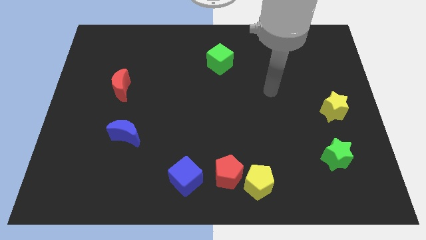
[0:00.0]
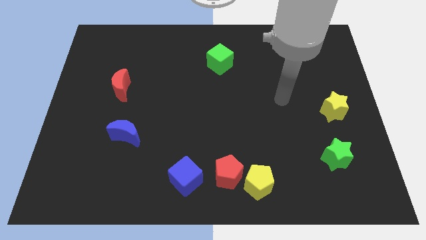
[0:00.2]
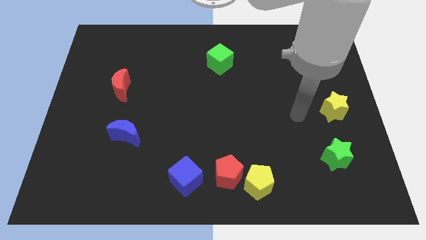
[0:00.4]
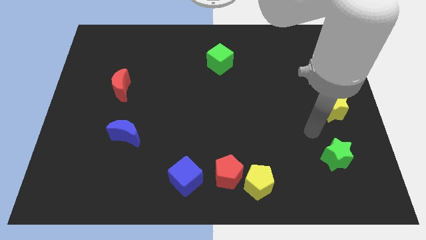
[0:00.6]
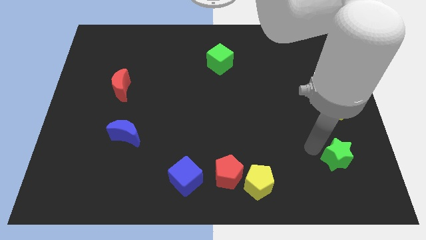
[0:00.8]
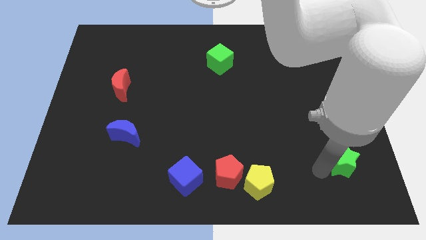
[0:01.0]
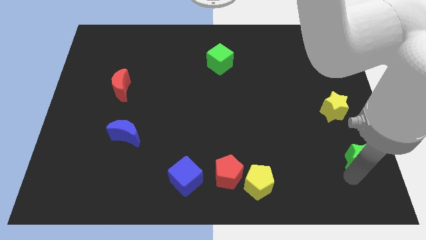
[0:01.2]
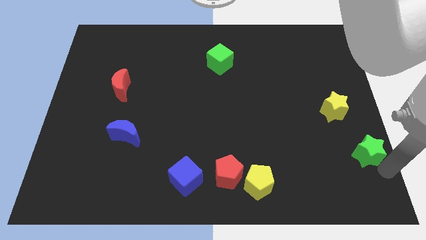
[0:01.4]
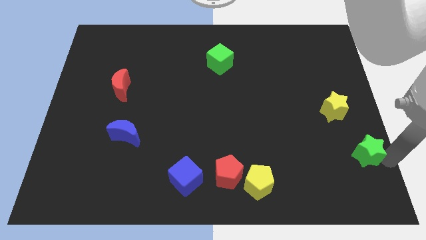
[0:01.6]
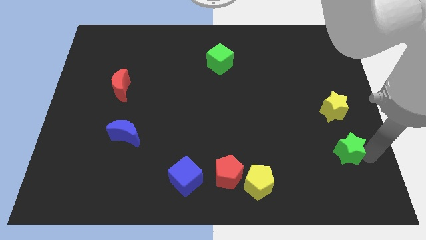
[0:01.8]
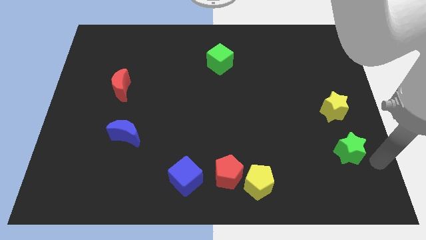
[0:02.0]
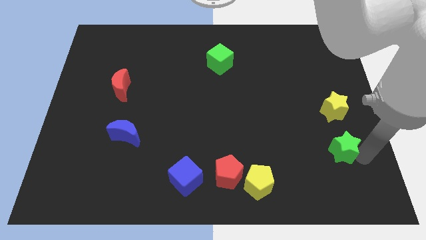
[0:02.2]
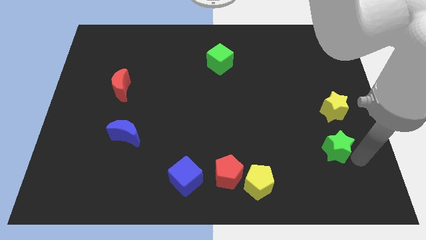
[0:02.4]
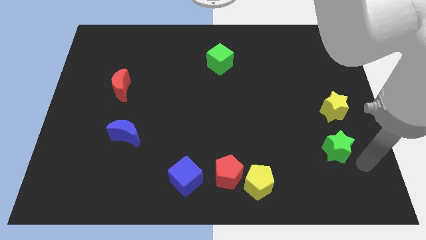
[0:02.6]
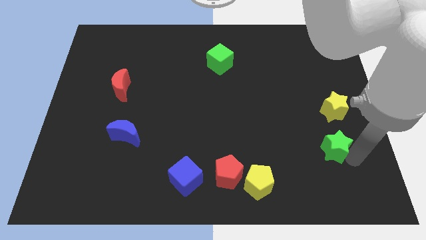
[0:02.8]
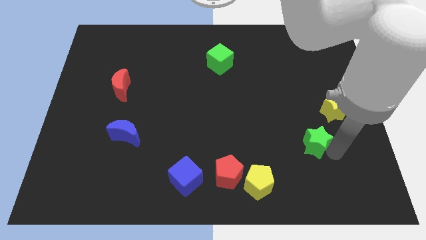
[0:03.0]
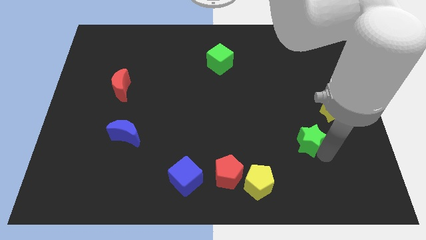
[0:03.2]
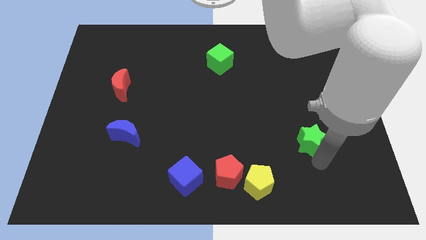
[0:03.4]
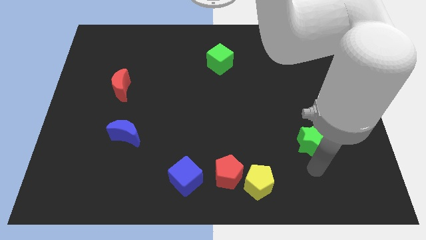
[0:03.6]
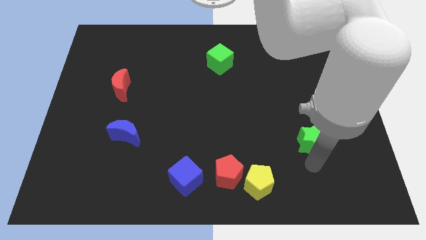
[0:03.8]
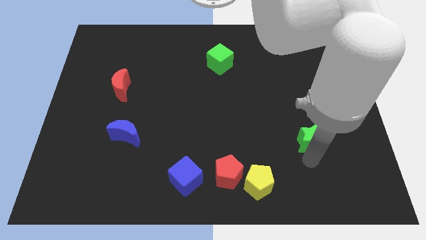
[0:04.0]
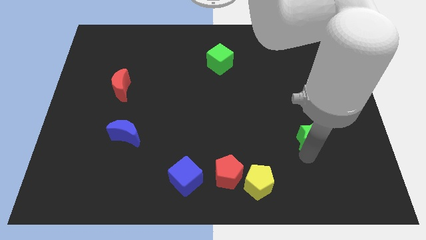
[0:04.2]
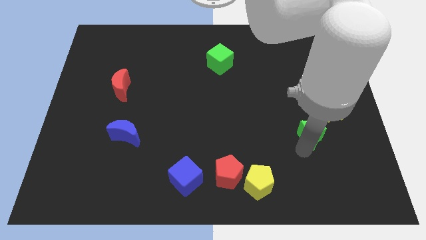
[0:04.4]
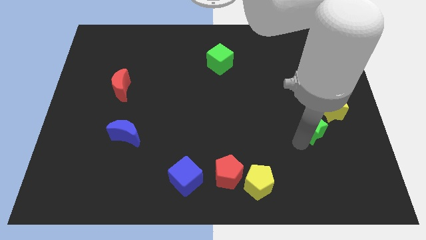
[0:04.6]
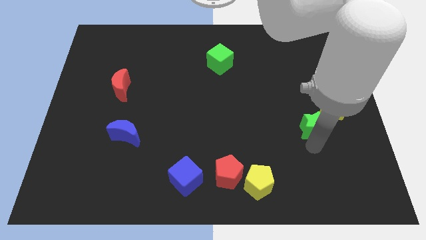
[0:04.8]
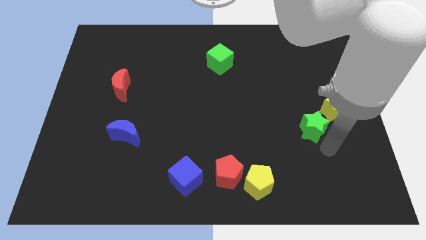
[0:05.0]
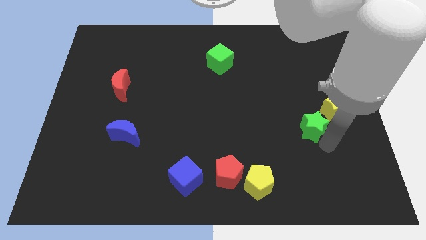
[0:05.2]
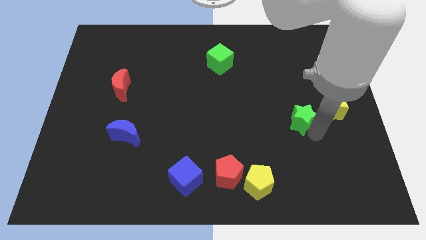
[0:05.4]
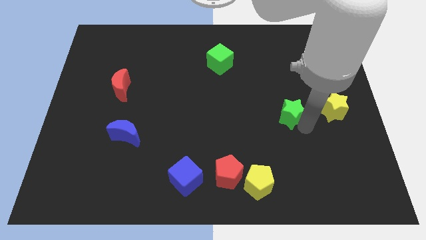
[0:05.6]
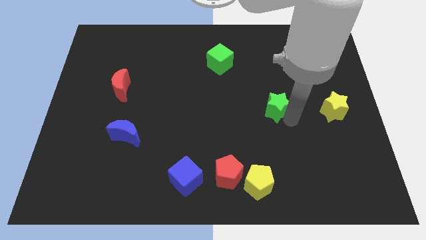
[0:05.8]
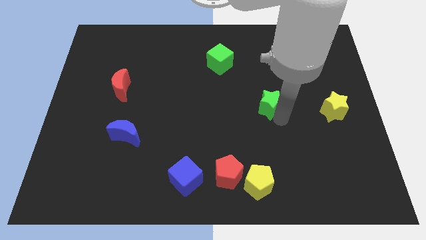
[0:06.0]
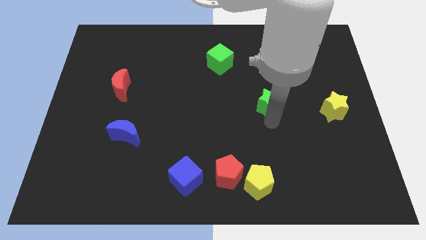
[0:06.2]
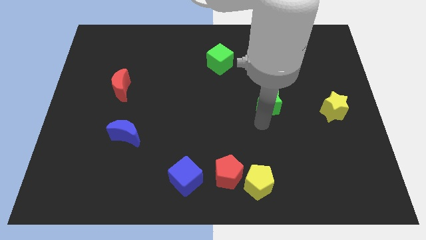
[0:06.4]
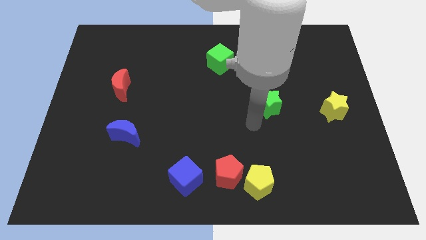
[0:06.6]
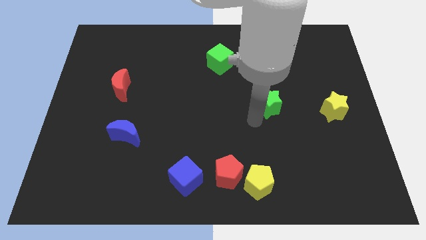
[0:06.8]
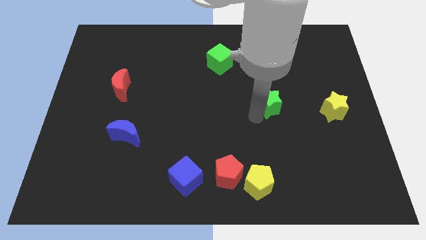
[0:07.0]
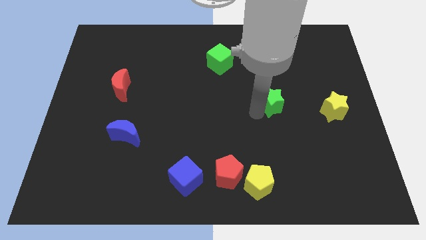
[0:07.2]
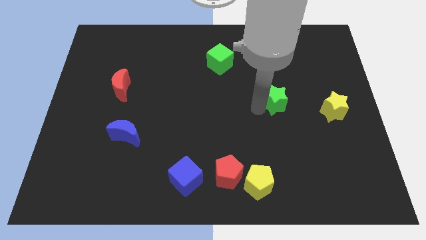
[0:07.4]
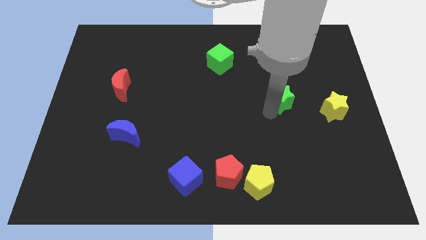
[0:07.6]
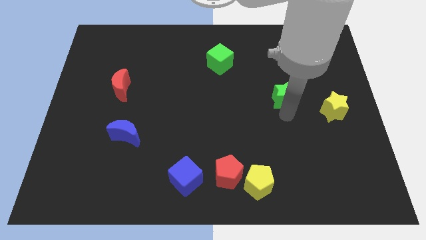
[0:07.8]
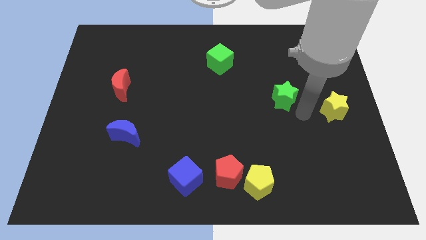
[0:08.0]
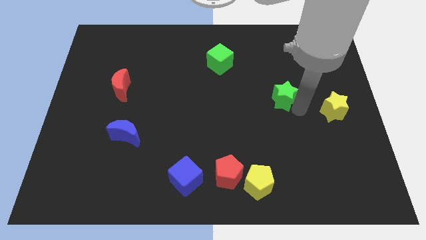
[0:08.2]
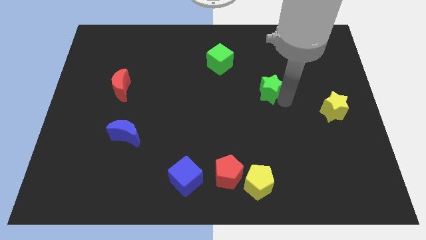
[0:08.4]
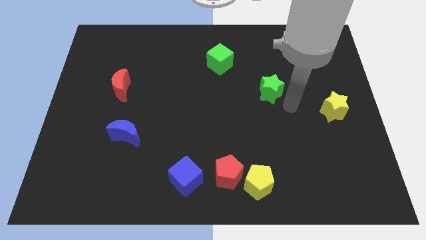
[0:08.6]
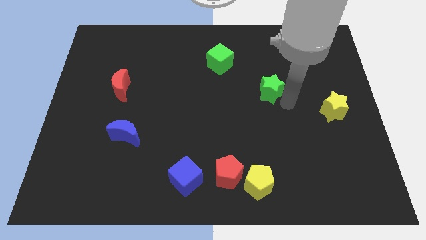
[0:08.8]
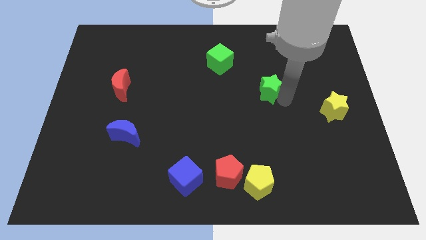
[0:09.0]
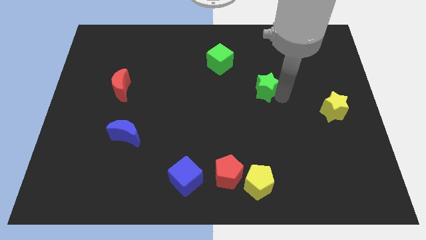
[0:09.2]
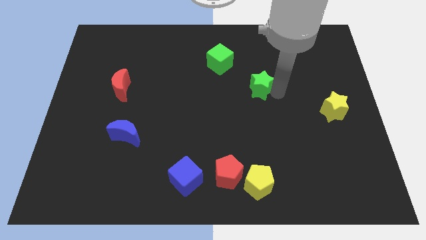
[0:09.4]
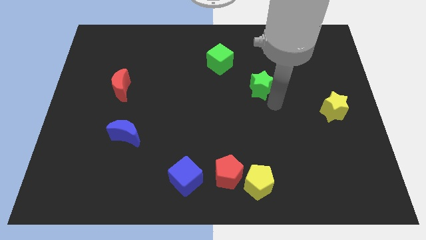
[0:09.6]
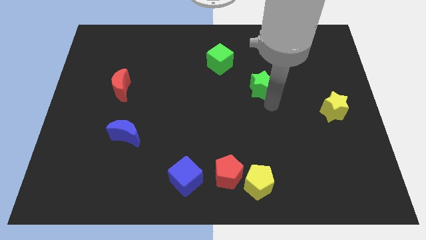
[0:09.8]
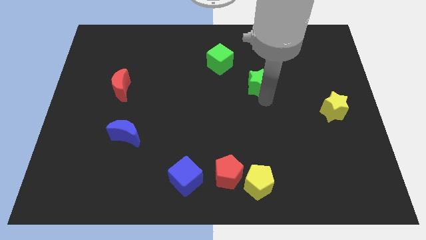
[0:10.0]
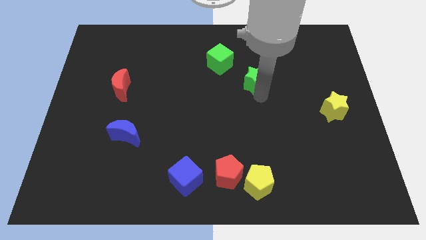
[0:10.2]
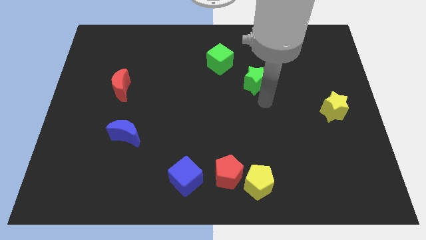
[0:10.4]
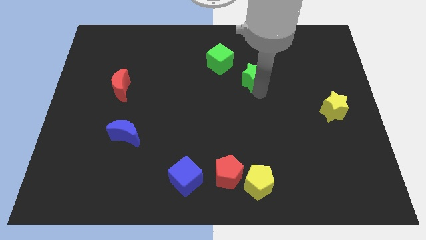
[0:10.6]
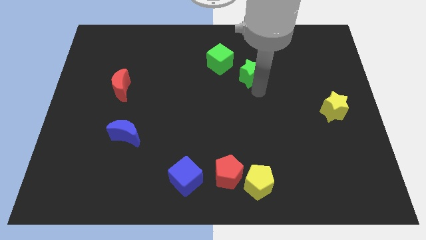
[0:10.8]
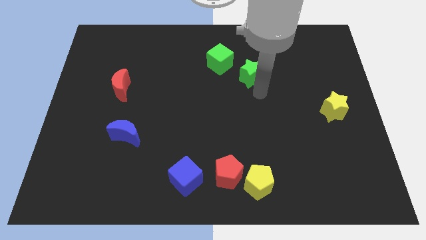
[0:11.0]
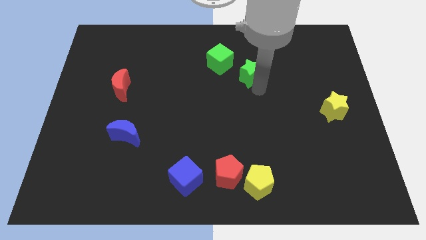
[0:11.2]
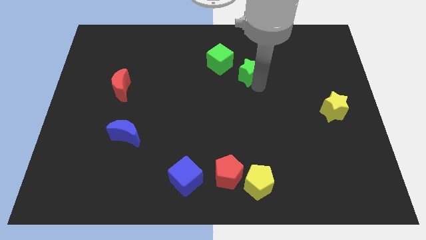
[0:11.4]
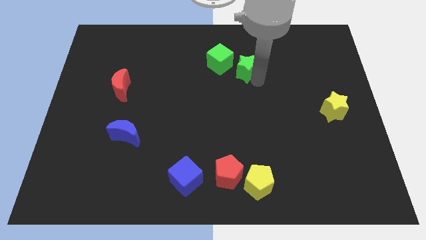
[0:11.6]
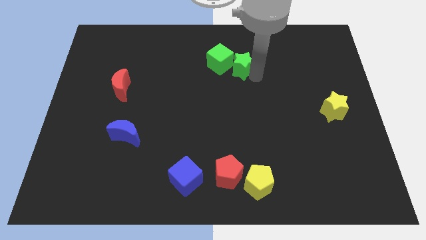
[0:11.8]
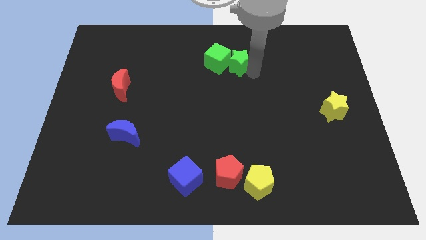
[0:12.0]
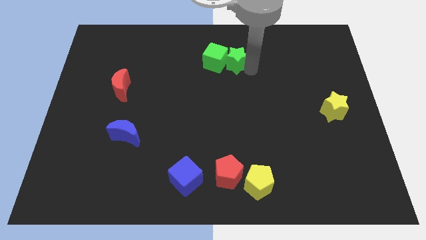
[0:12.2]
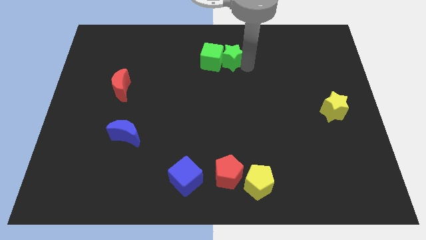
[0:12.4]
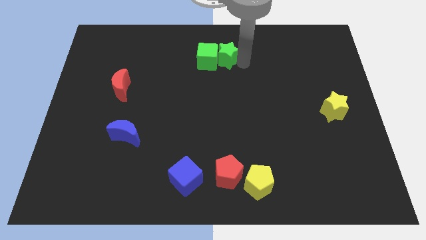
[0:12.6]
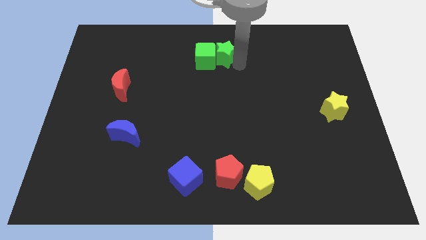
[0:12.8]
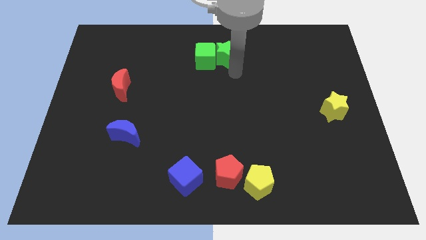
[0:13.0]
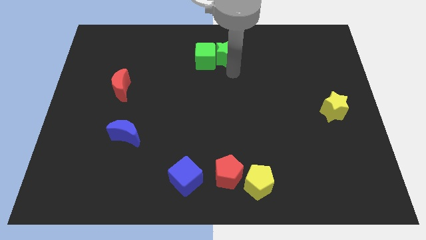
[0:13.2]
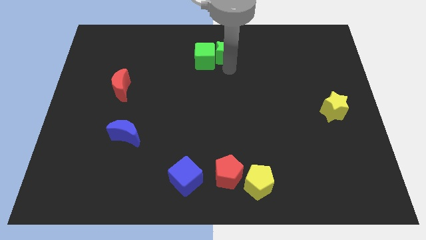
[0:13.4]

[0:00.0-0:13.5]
slide the green star to the towards your base
